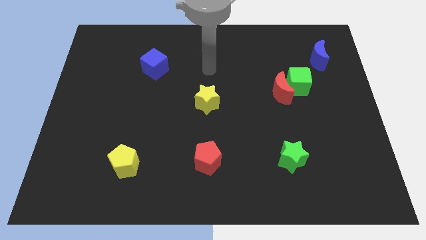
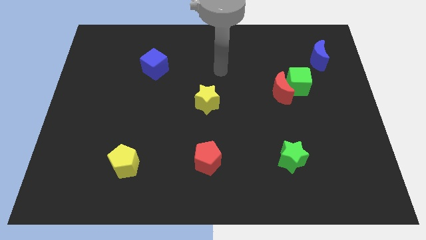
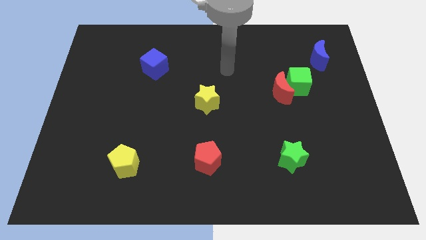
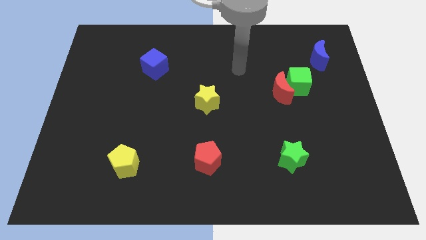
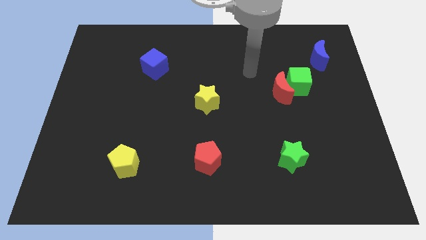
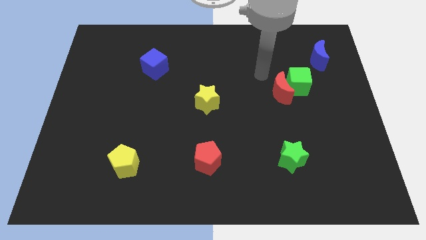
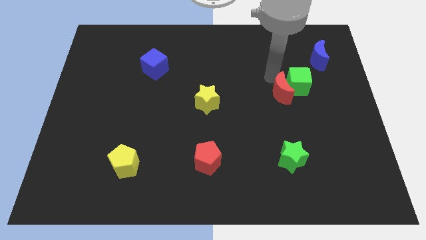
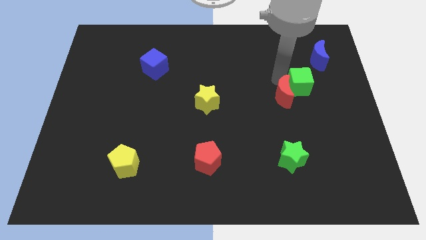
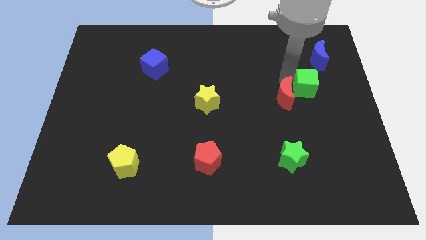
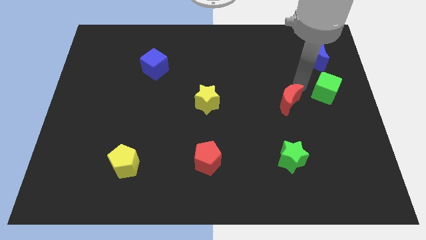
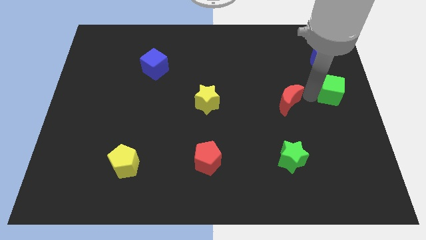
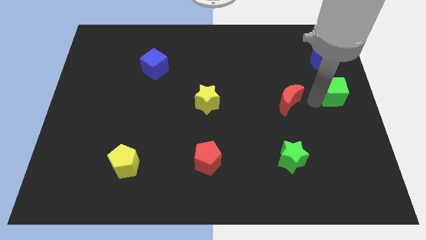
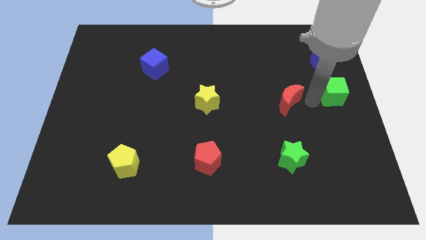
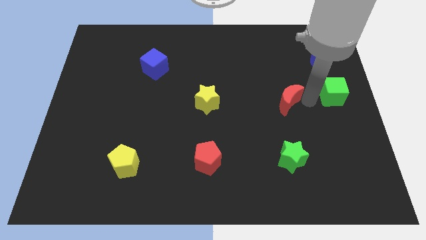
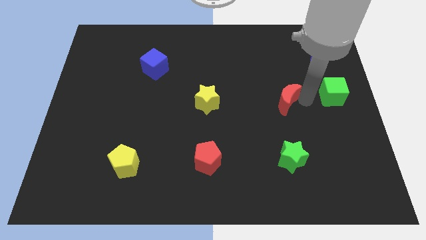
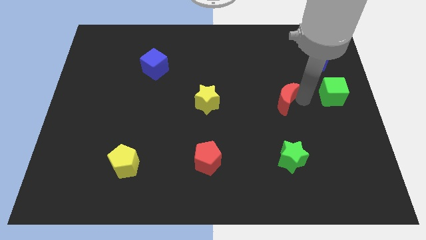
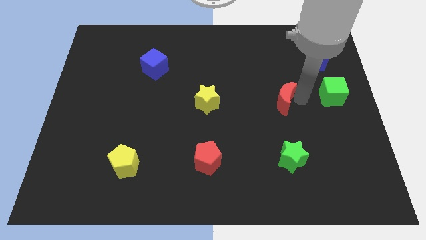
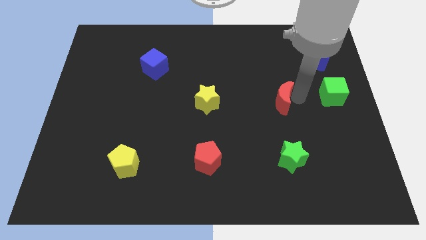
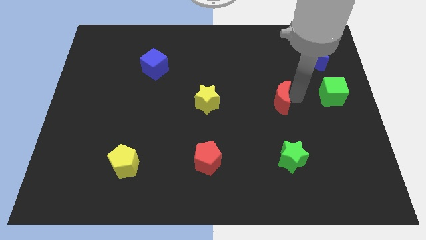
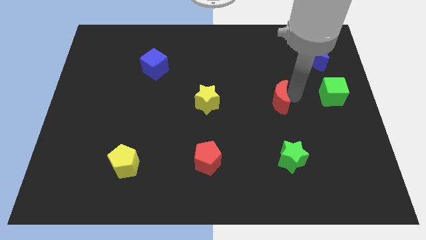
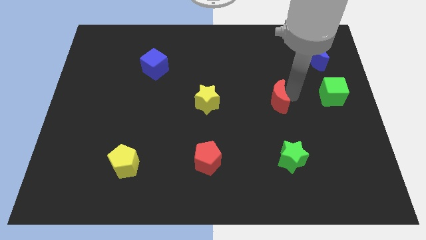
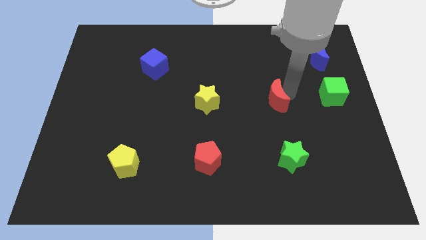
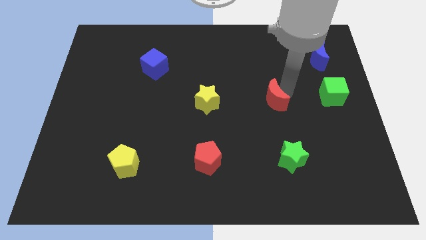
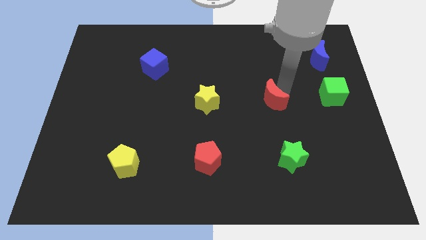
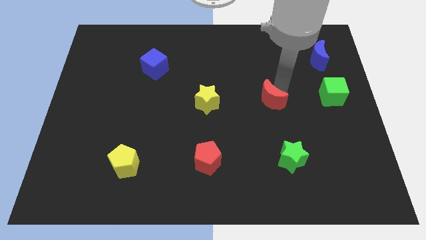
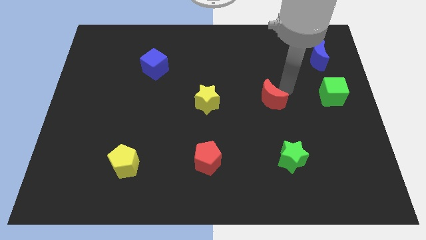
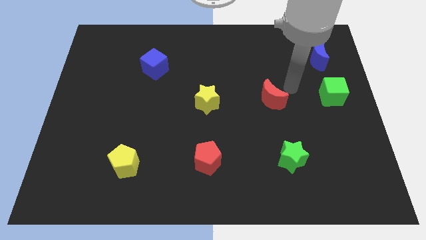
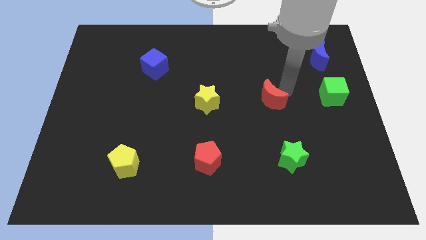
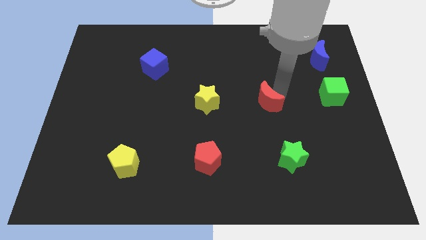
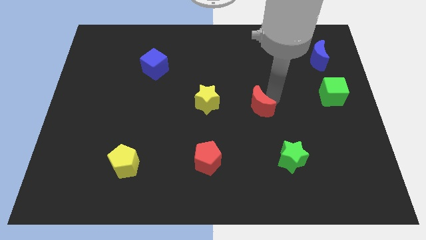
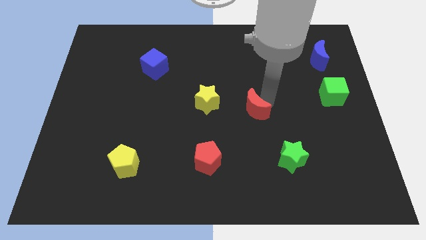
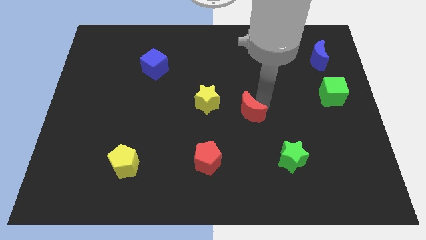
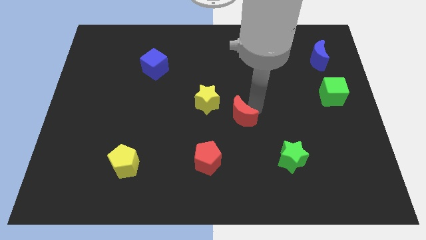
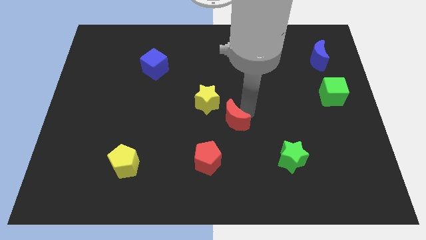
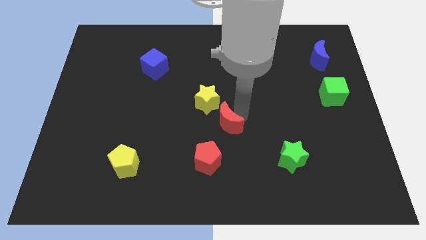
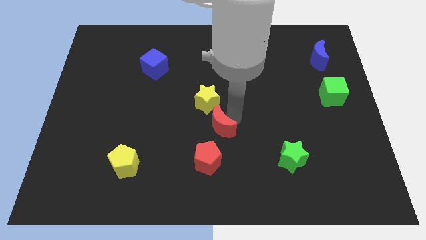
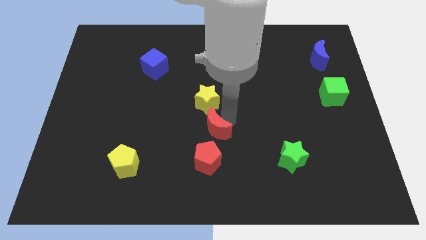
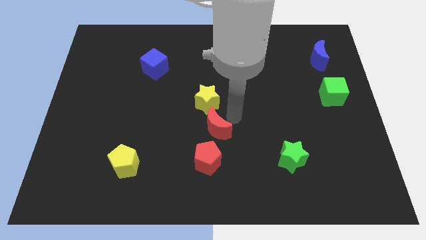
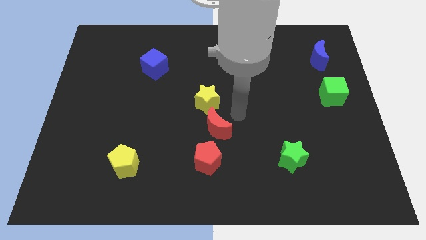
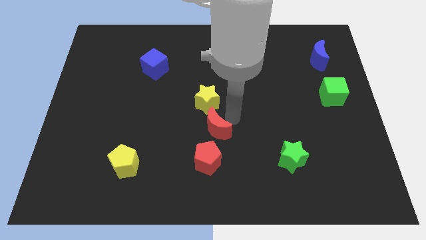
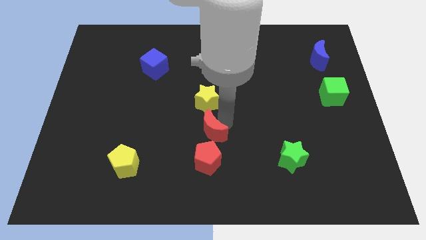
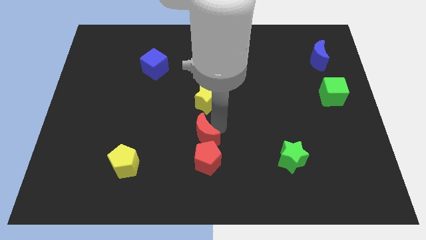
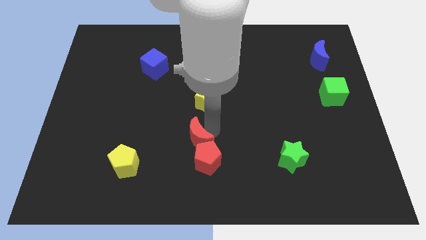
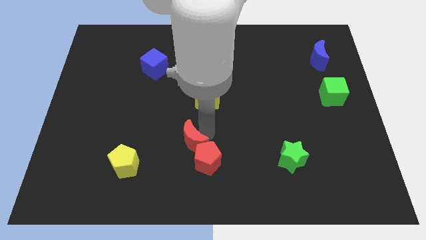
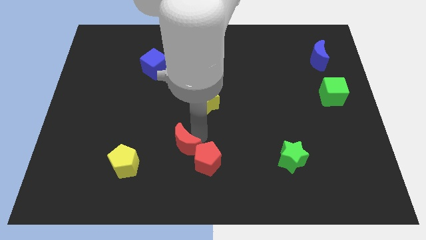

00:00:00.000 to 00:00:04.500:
push the red moon just right of the yellow pentagon

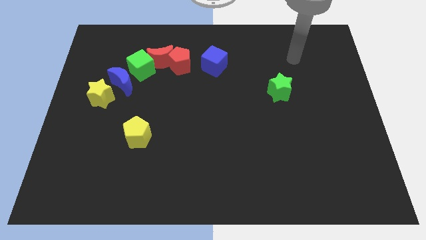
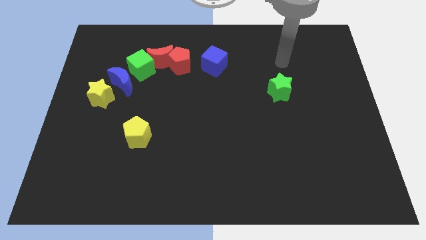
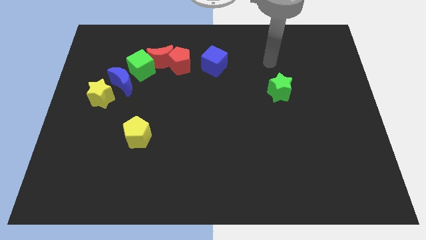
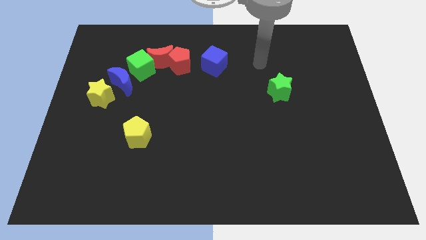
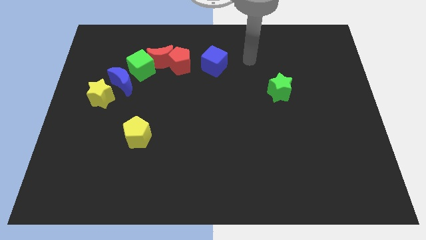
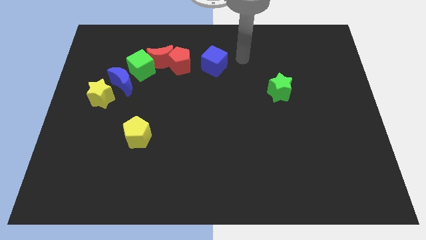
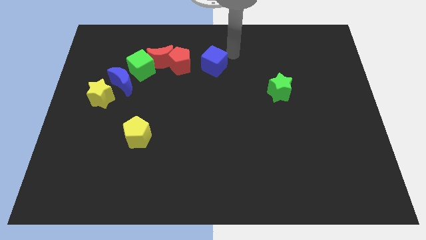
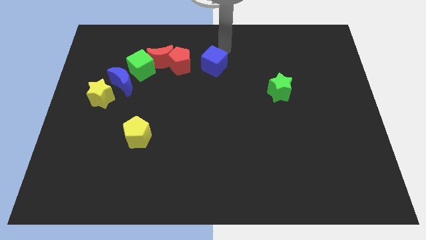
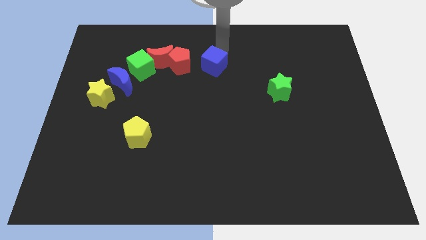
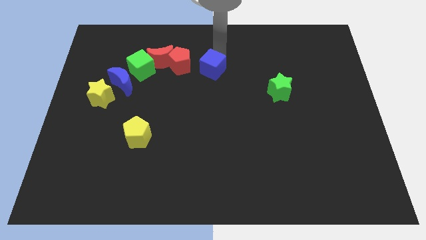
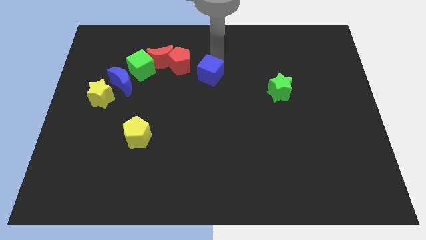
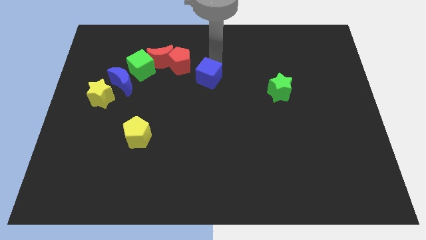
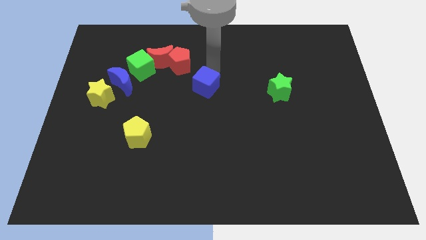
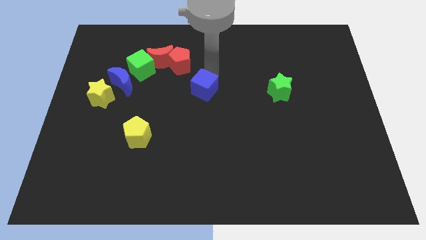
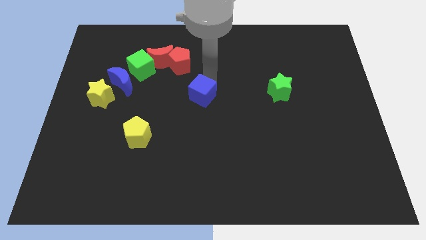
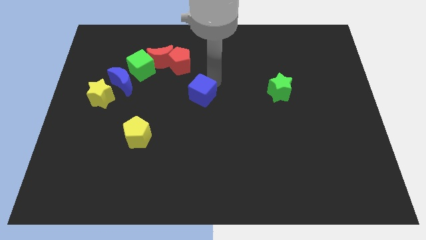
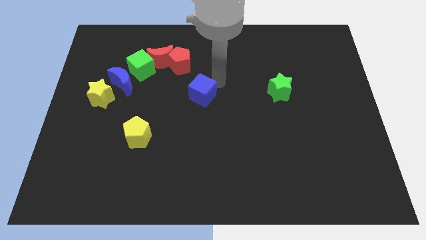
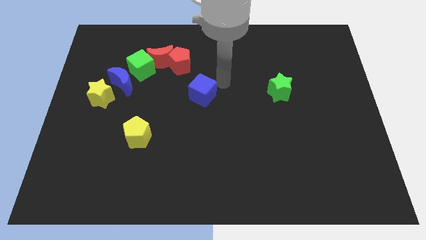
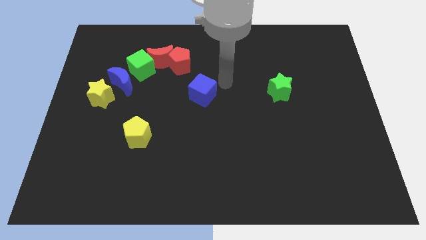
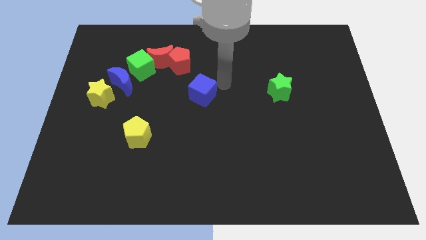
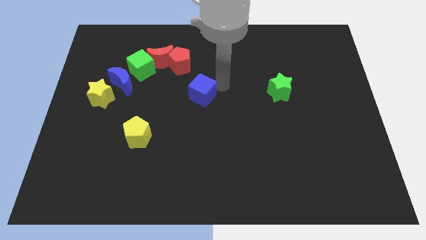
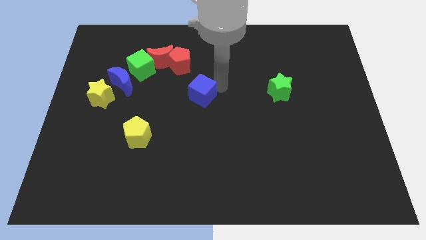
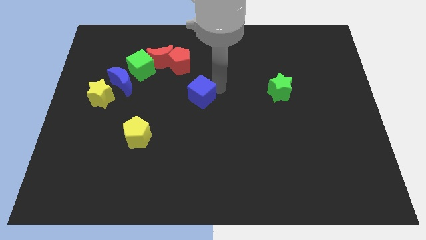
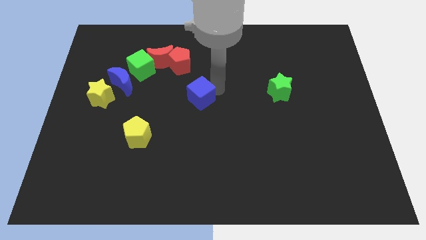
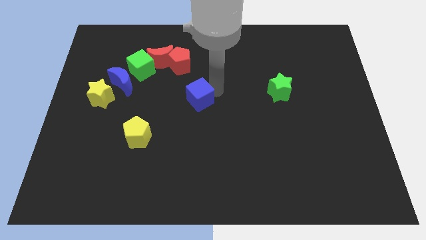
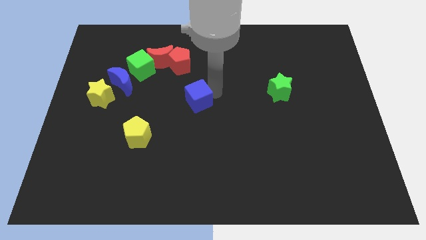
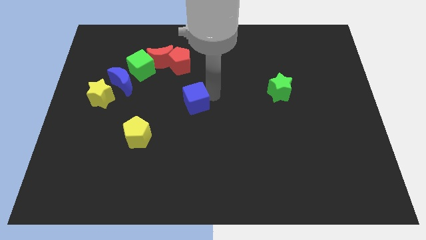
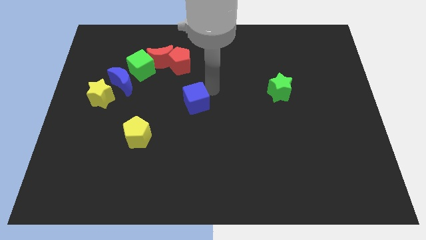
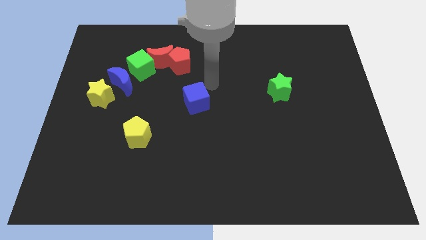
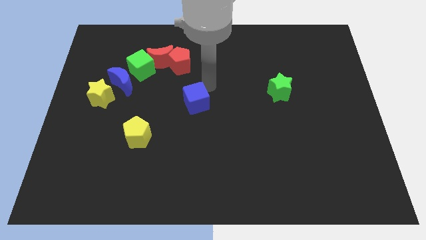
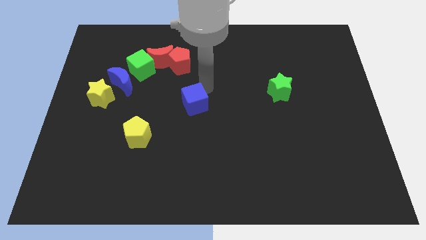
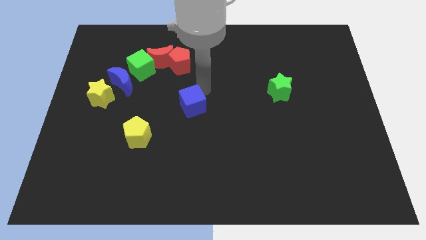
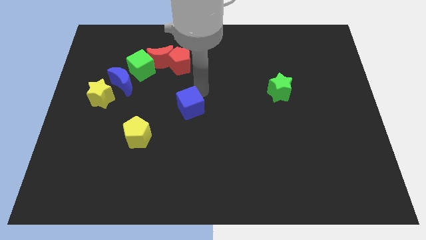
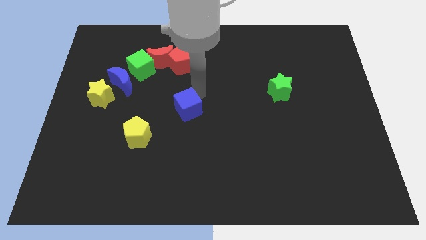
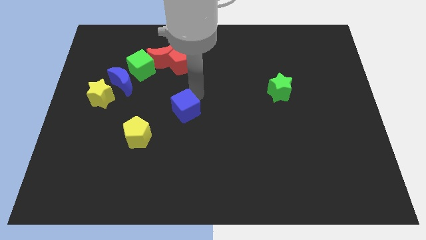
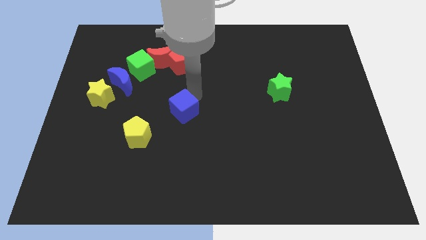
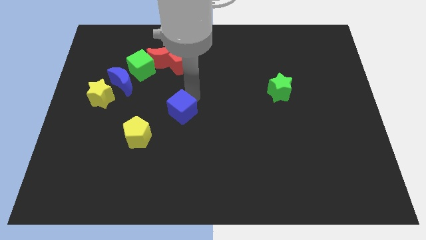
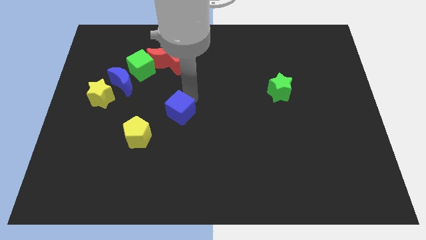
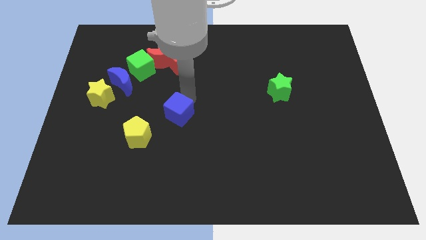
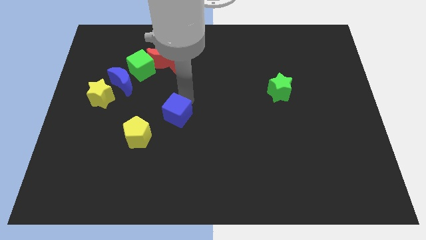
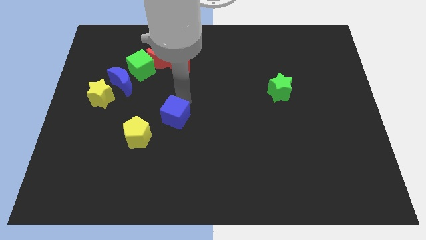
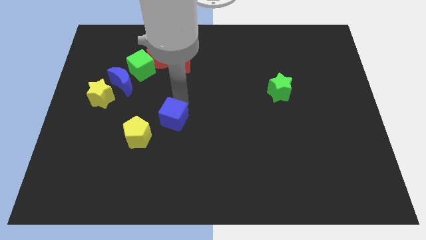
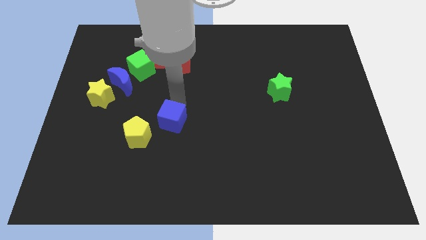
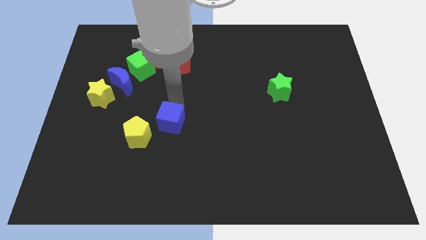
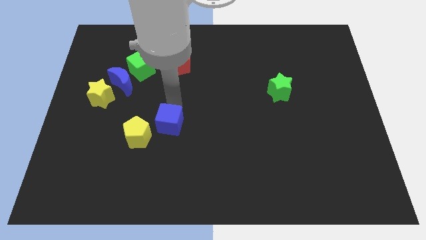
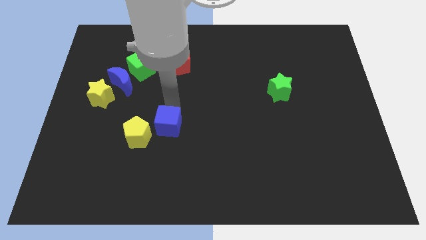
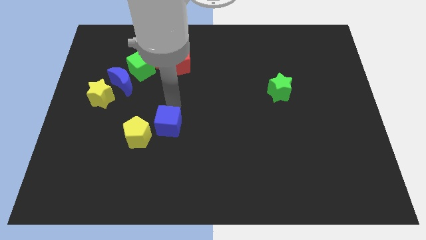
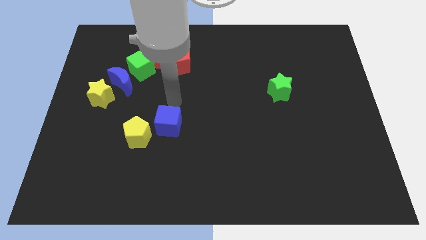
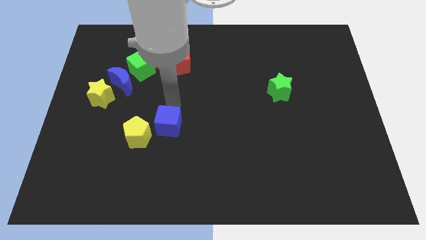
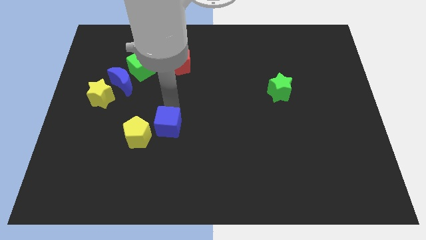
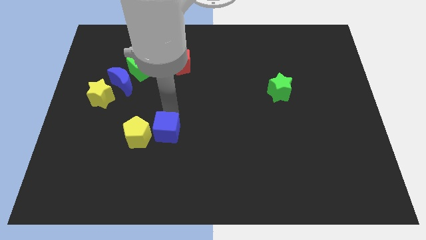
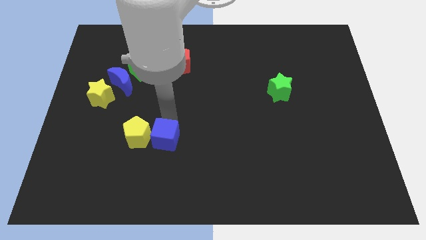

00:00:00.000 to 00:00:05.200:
push the blue cube diagonally down and to the right of the yellow pentagon
